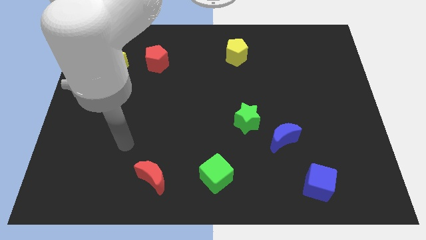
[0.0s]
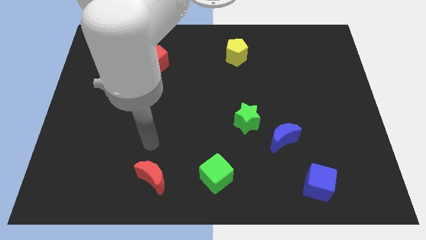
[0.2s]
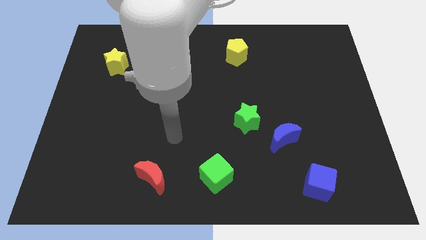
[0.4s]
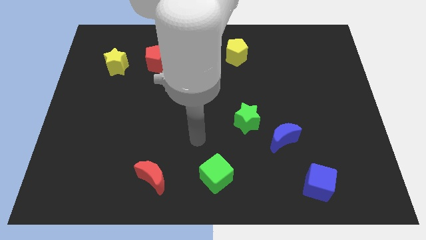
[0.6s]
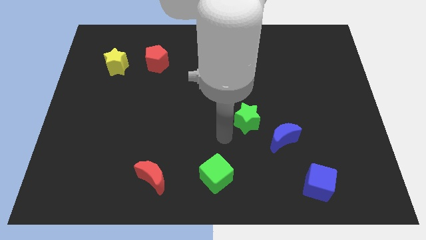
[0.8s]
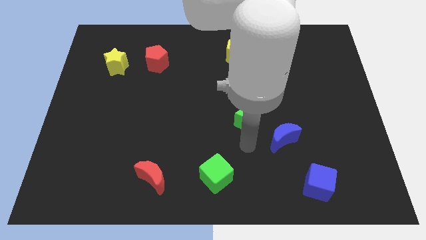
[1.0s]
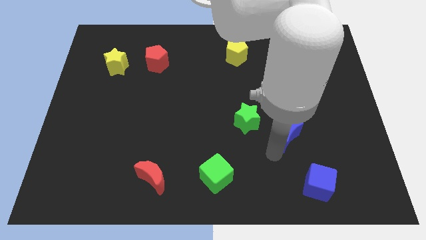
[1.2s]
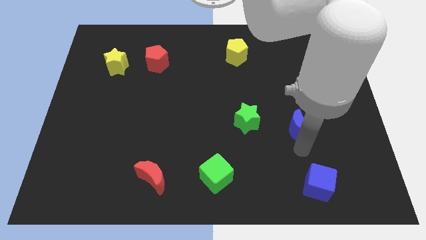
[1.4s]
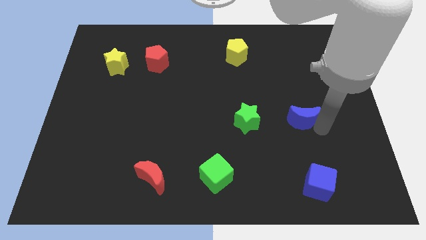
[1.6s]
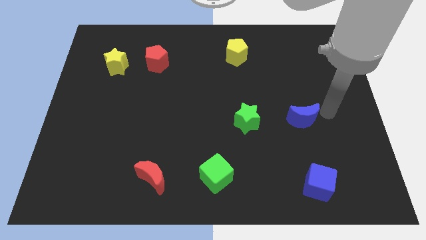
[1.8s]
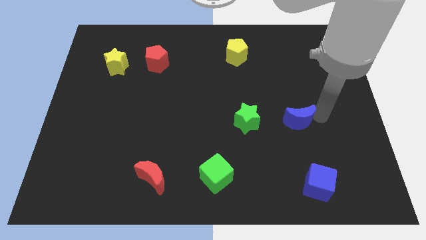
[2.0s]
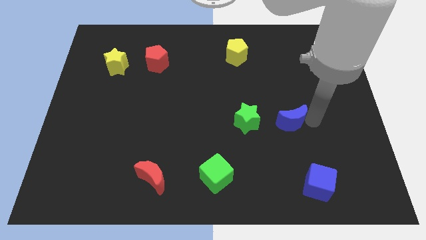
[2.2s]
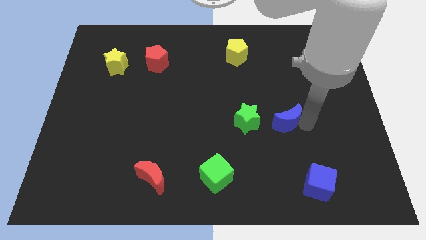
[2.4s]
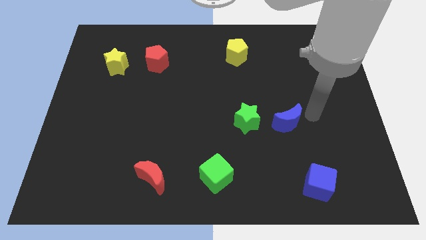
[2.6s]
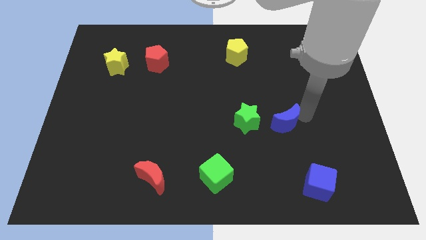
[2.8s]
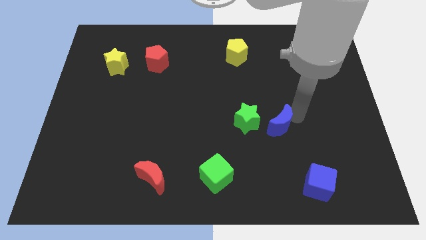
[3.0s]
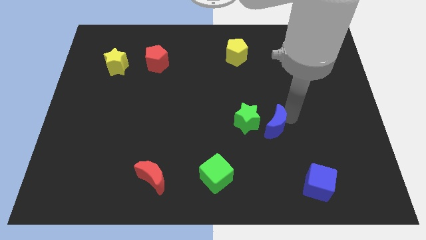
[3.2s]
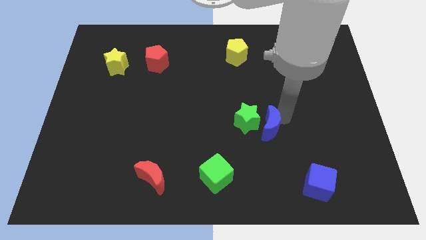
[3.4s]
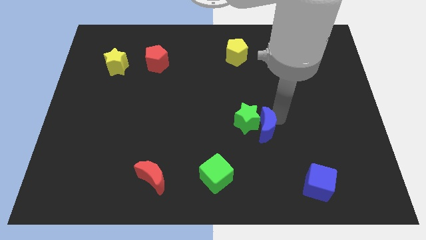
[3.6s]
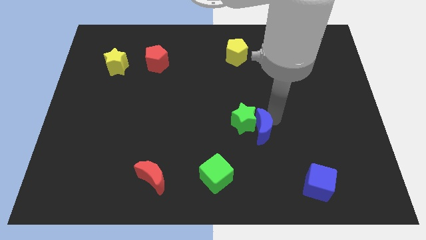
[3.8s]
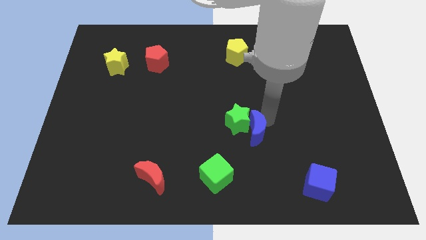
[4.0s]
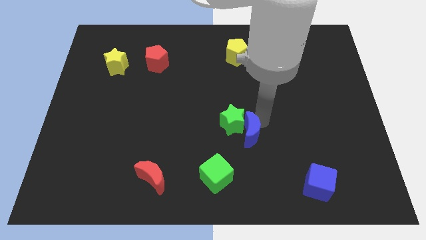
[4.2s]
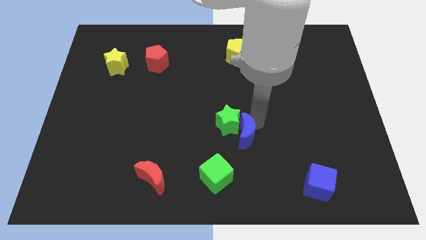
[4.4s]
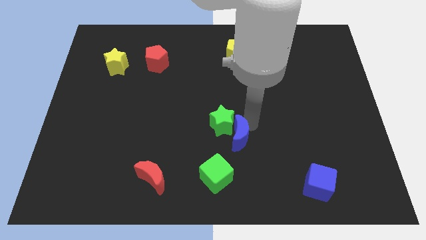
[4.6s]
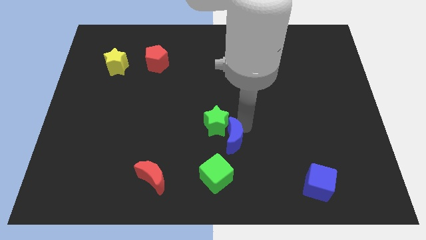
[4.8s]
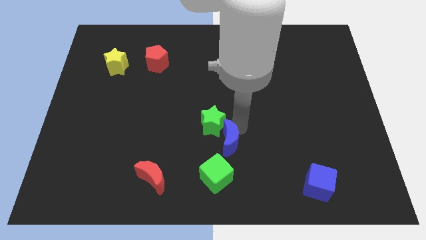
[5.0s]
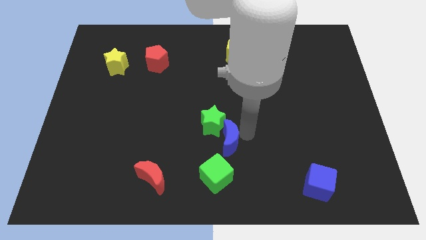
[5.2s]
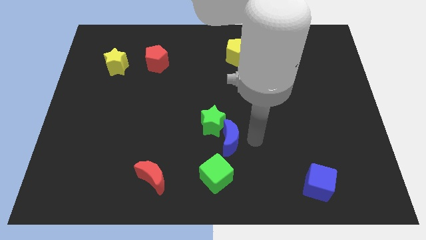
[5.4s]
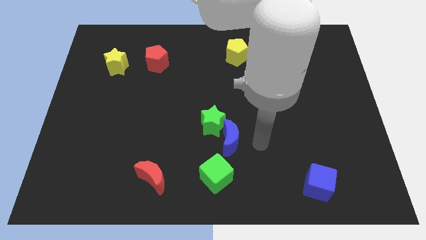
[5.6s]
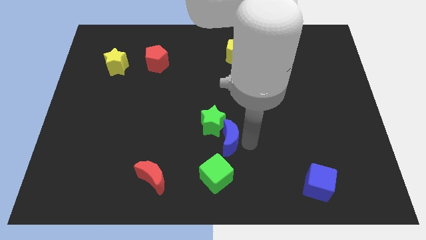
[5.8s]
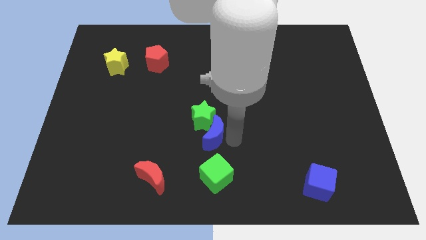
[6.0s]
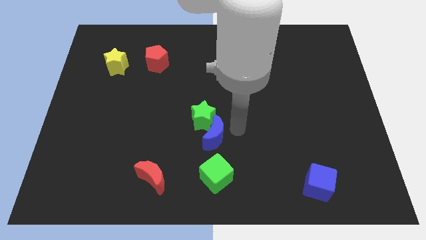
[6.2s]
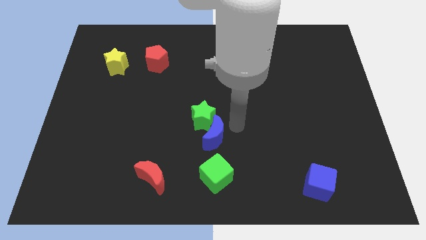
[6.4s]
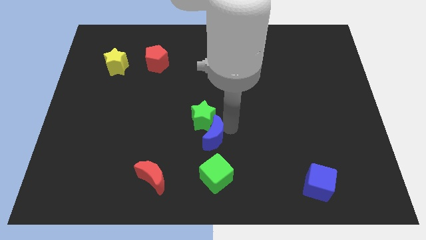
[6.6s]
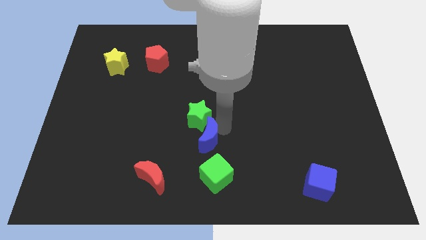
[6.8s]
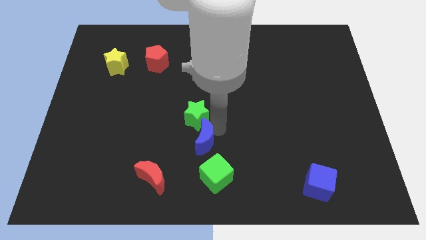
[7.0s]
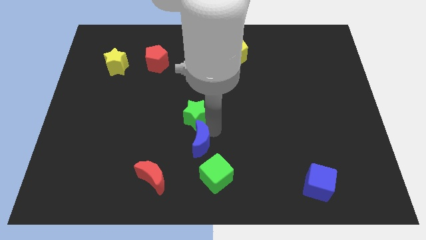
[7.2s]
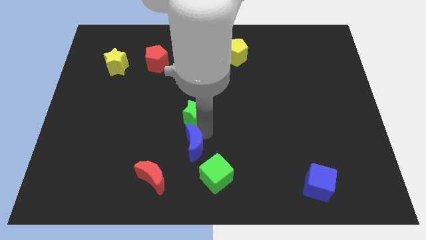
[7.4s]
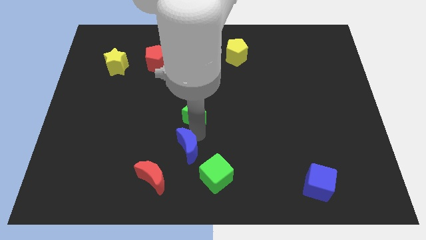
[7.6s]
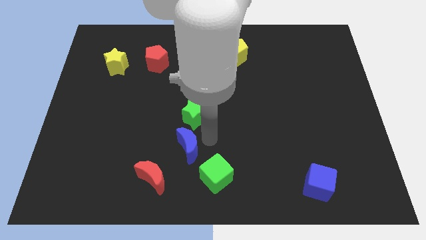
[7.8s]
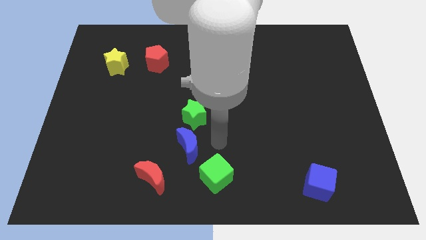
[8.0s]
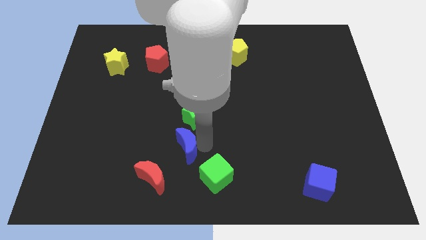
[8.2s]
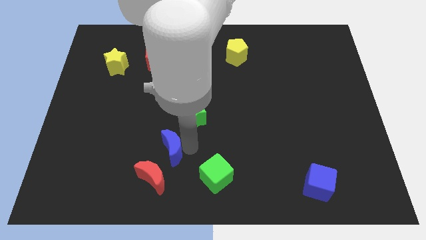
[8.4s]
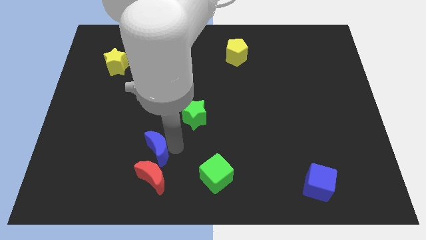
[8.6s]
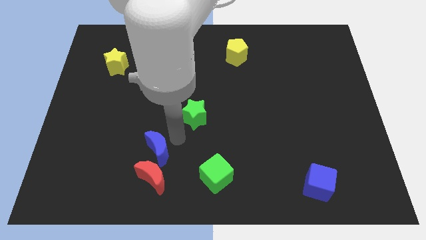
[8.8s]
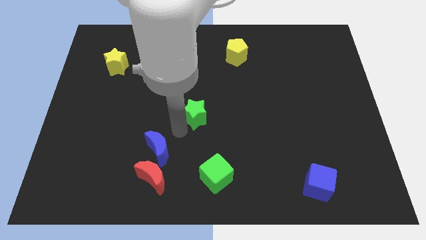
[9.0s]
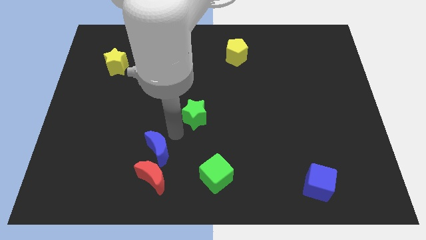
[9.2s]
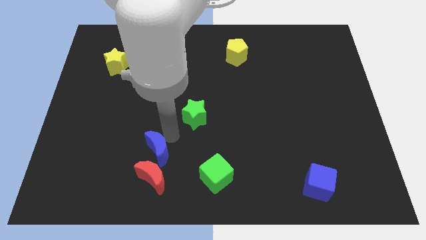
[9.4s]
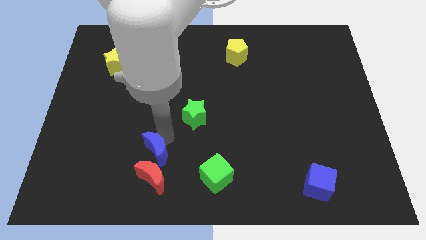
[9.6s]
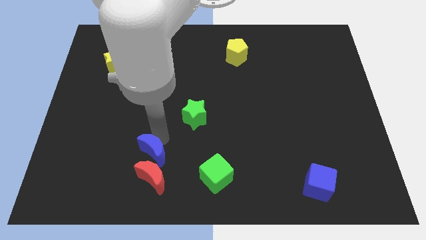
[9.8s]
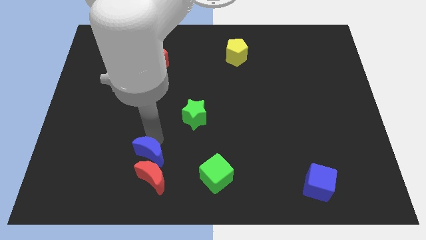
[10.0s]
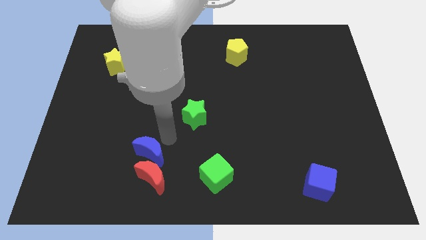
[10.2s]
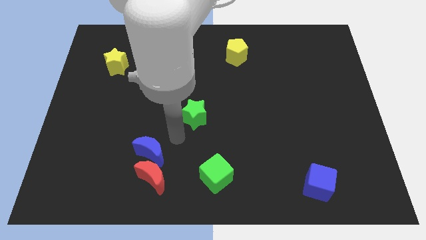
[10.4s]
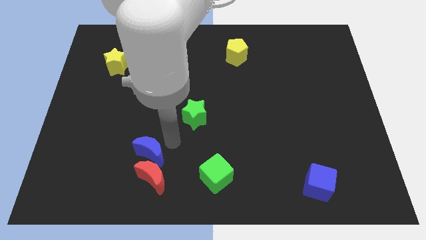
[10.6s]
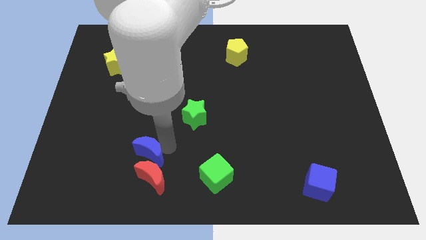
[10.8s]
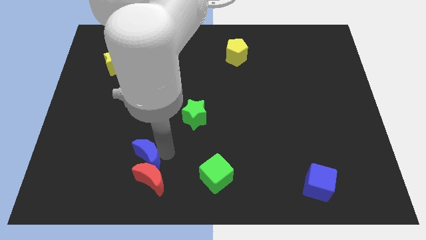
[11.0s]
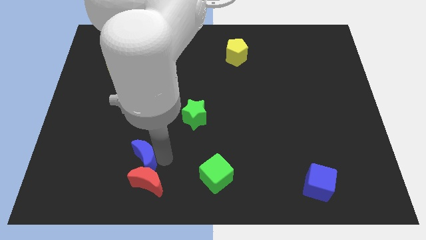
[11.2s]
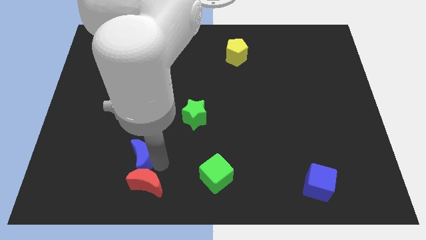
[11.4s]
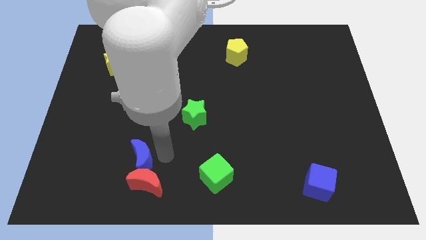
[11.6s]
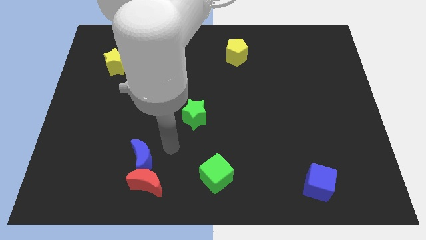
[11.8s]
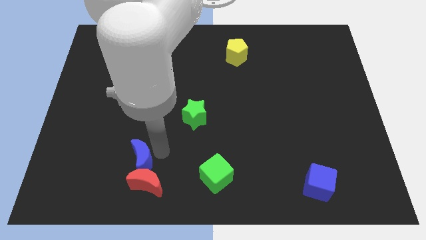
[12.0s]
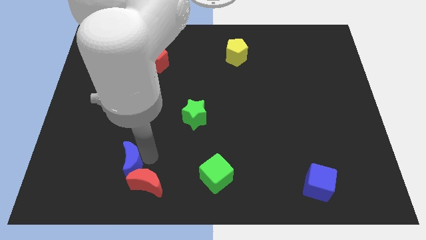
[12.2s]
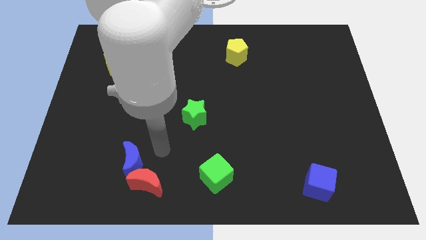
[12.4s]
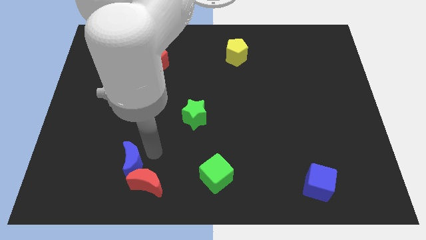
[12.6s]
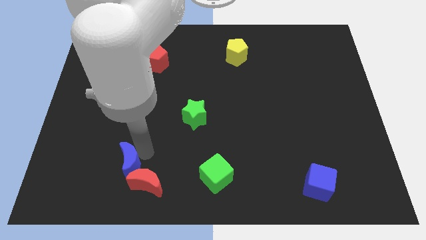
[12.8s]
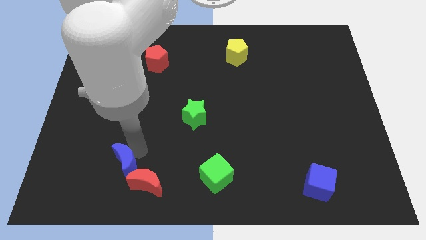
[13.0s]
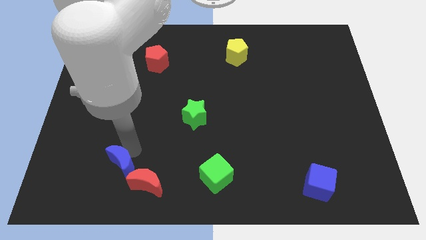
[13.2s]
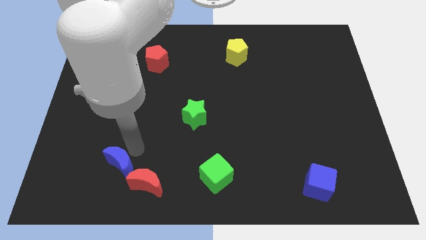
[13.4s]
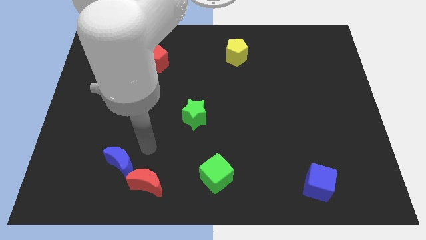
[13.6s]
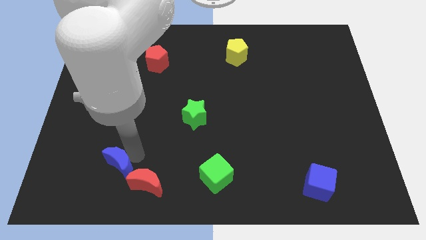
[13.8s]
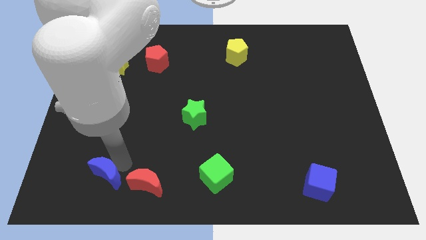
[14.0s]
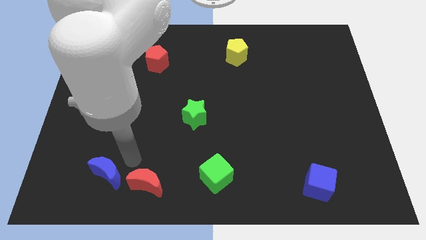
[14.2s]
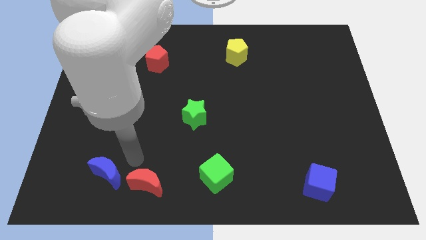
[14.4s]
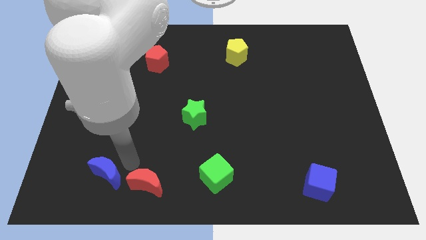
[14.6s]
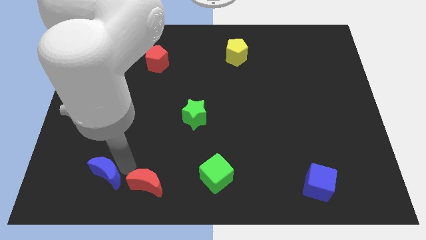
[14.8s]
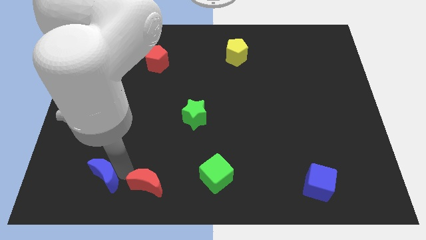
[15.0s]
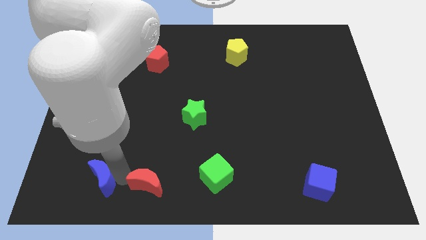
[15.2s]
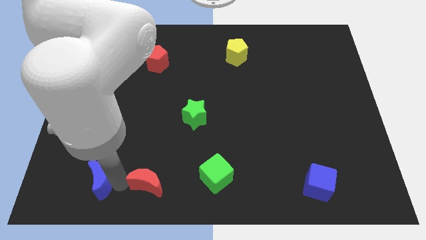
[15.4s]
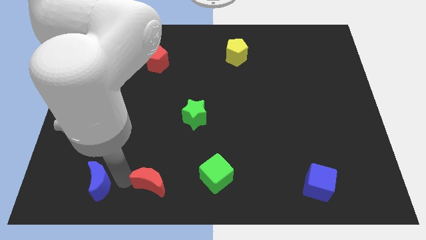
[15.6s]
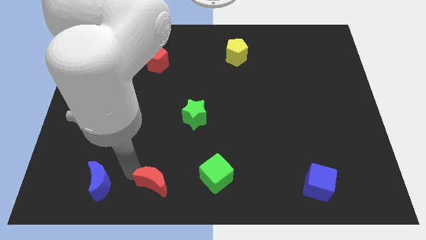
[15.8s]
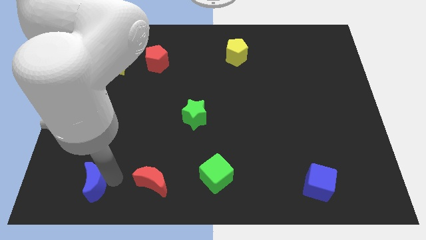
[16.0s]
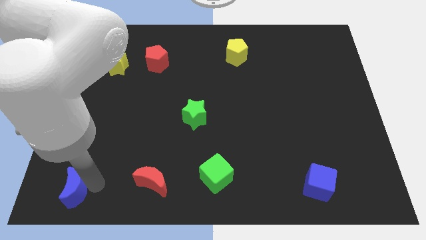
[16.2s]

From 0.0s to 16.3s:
put the blue moon to the bottom left
